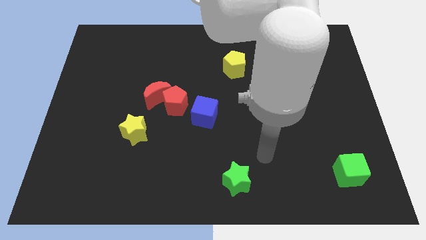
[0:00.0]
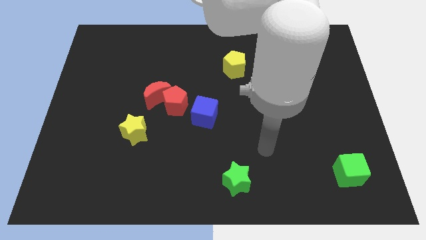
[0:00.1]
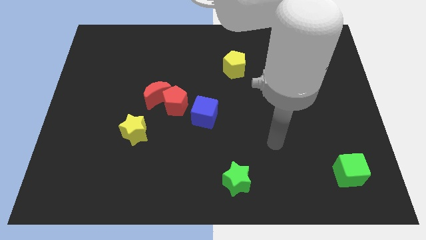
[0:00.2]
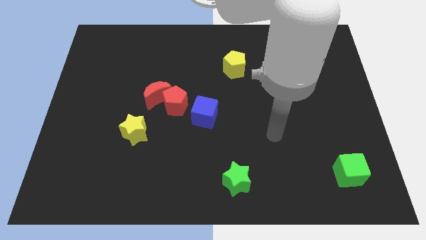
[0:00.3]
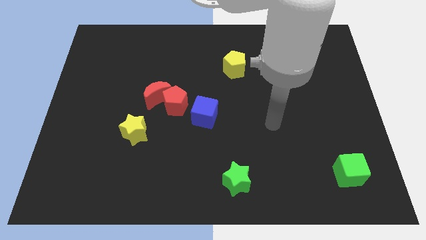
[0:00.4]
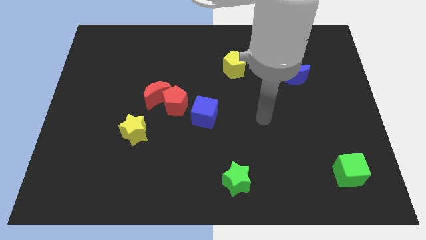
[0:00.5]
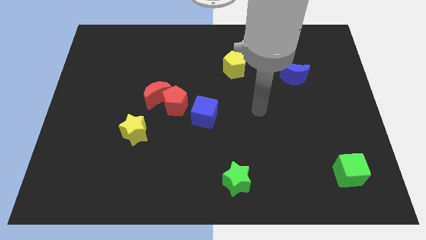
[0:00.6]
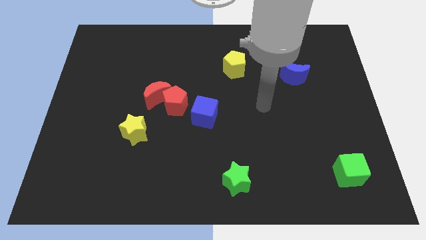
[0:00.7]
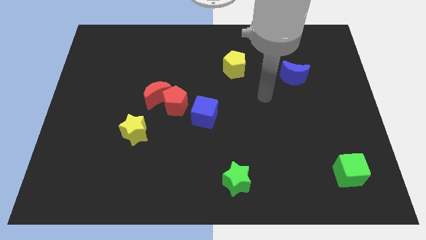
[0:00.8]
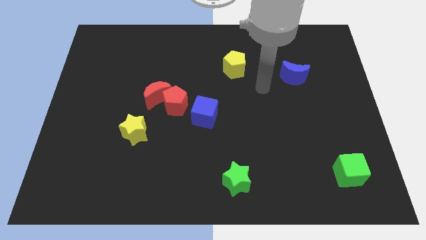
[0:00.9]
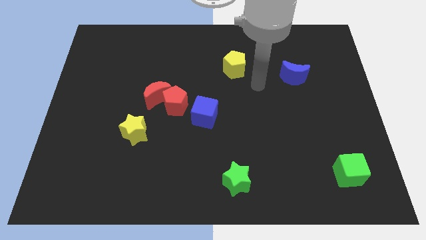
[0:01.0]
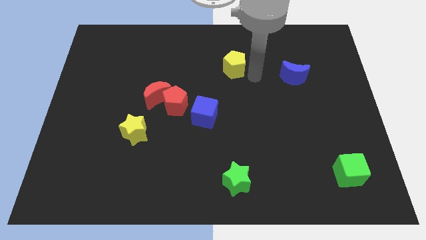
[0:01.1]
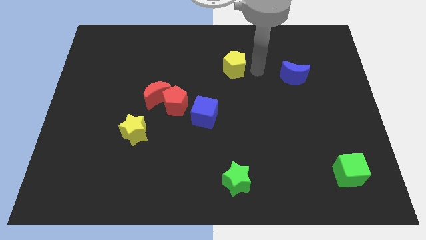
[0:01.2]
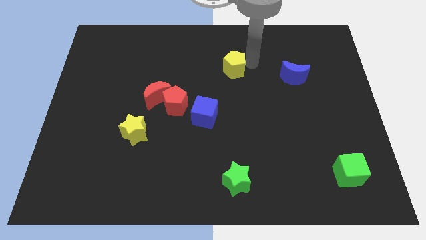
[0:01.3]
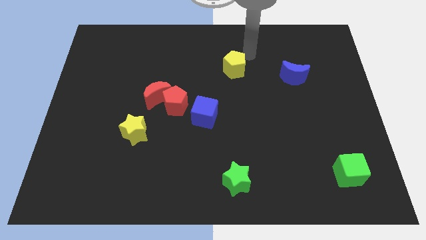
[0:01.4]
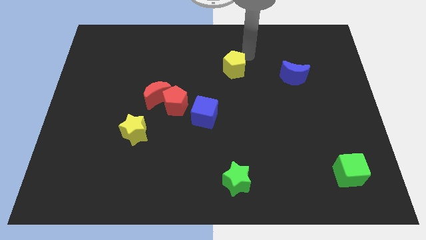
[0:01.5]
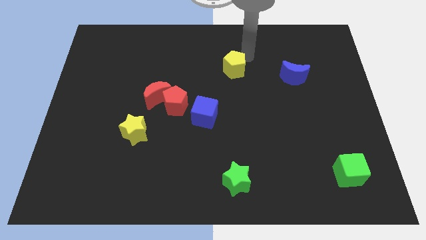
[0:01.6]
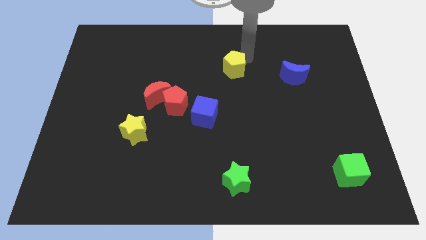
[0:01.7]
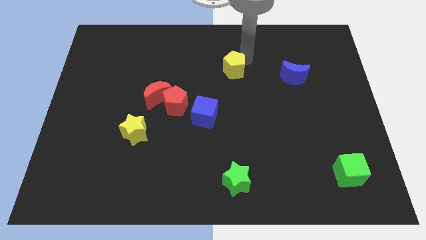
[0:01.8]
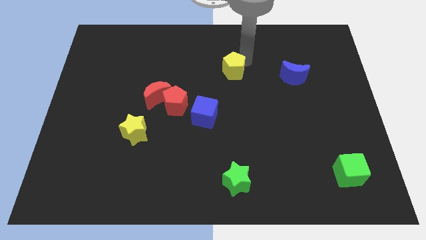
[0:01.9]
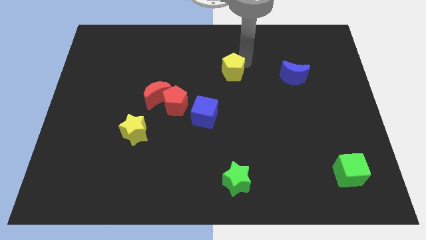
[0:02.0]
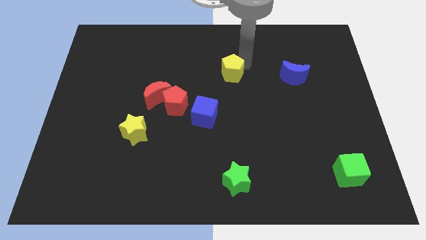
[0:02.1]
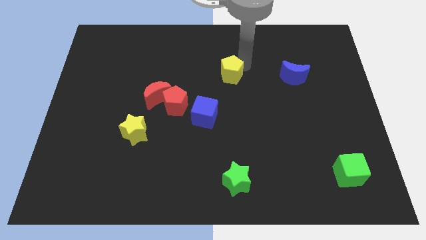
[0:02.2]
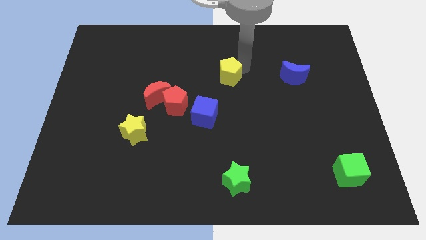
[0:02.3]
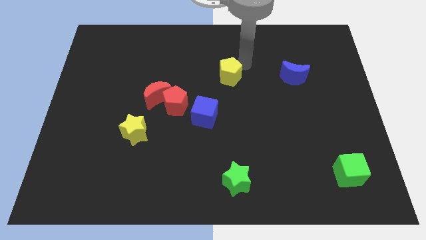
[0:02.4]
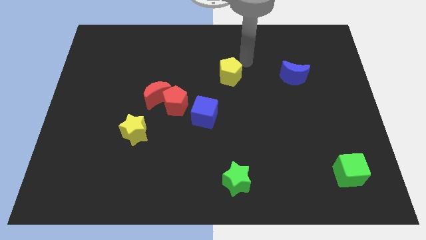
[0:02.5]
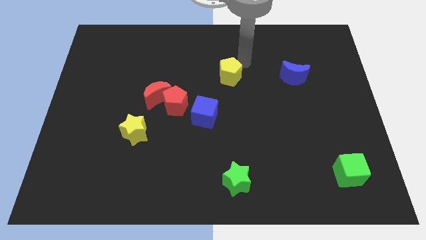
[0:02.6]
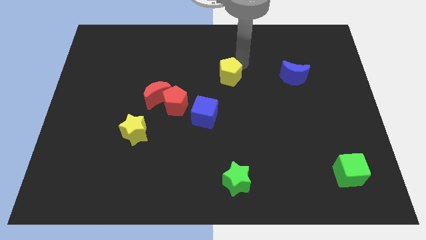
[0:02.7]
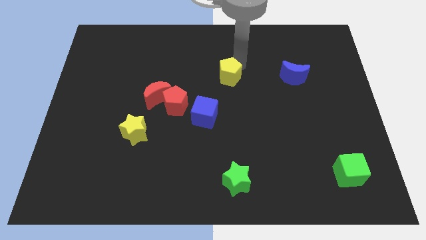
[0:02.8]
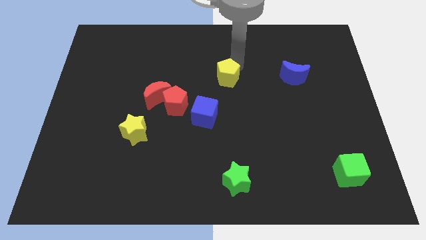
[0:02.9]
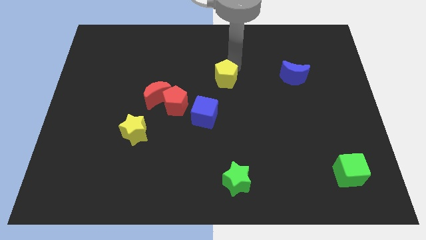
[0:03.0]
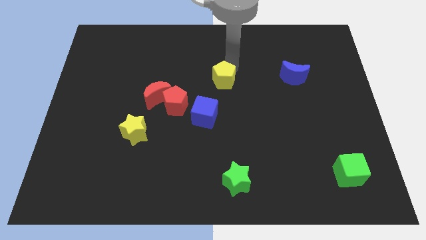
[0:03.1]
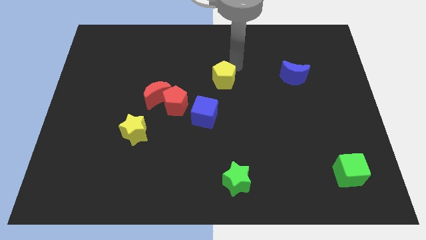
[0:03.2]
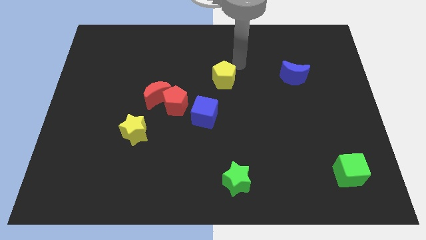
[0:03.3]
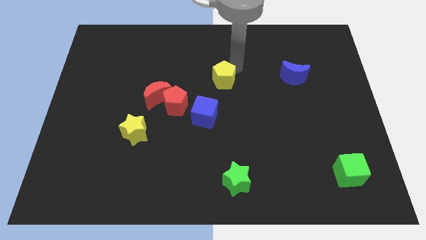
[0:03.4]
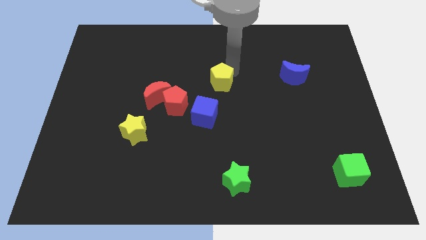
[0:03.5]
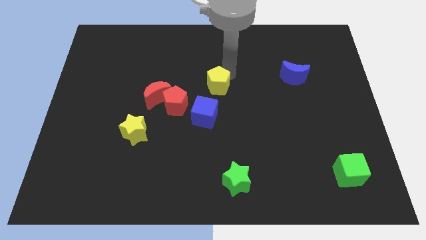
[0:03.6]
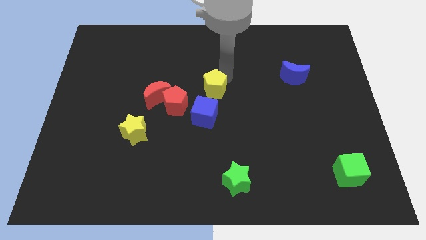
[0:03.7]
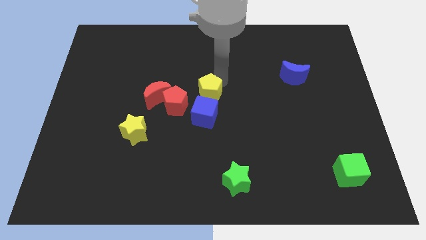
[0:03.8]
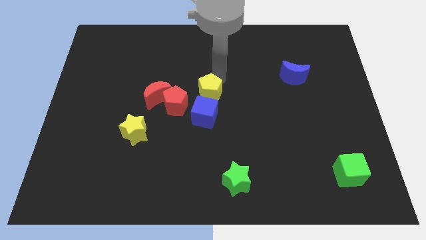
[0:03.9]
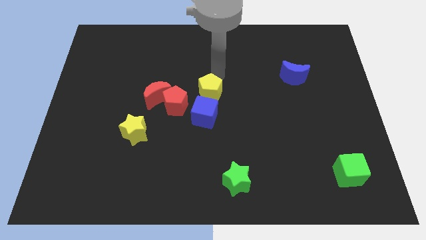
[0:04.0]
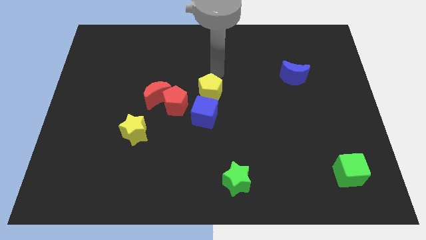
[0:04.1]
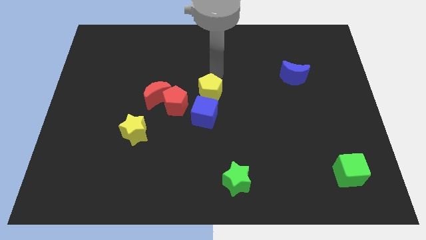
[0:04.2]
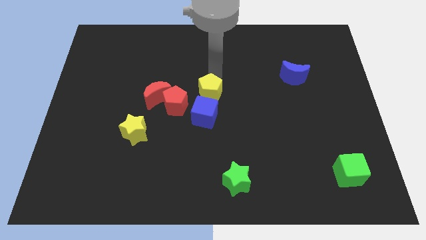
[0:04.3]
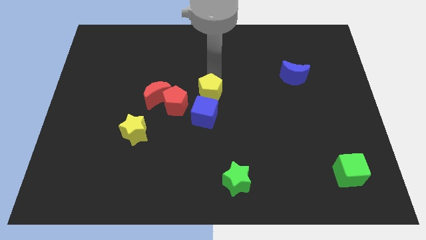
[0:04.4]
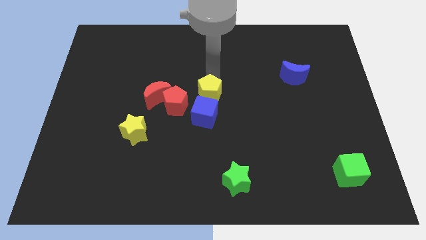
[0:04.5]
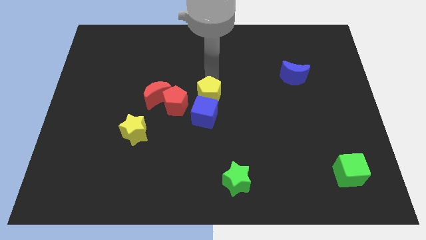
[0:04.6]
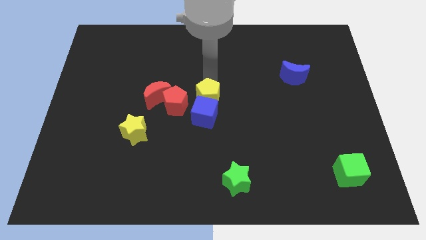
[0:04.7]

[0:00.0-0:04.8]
push the yellow pentagon next to the blue cube

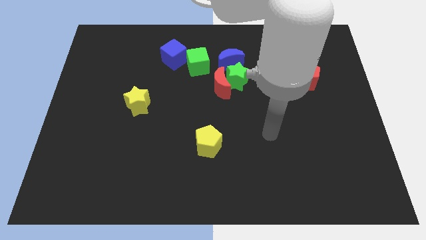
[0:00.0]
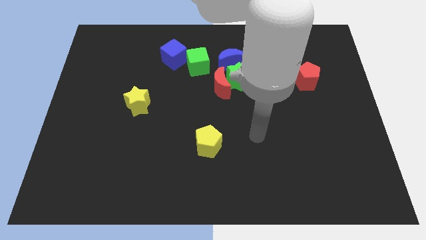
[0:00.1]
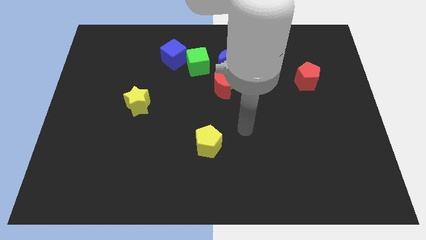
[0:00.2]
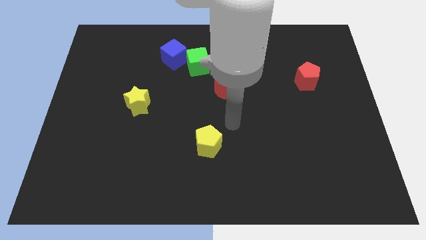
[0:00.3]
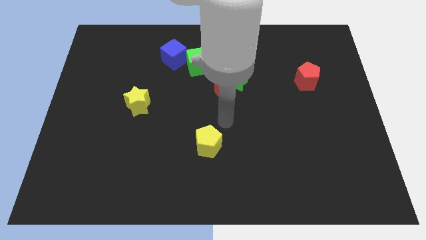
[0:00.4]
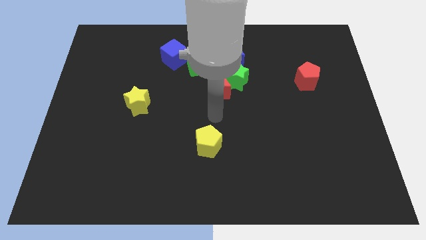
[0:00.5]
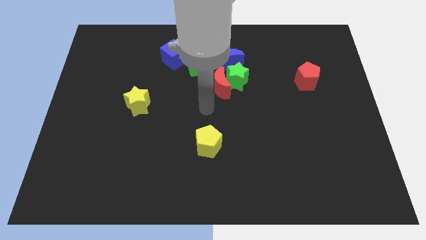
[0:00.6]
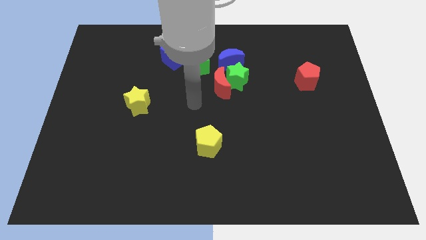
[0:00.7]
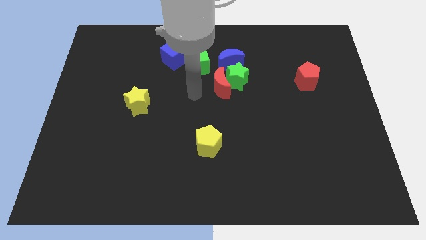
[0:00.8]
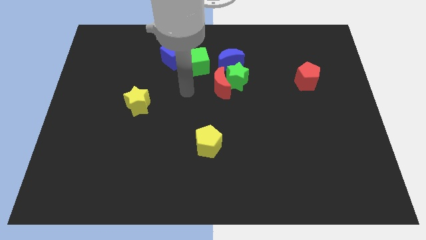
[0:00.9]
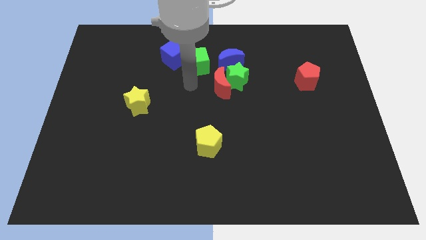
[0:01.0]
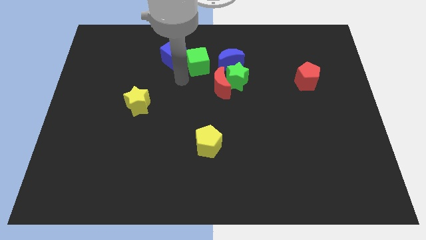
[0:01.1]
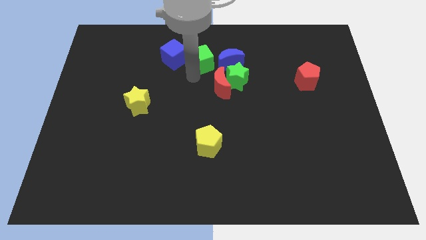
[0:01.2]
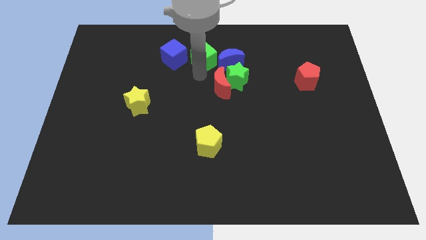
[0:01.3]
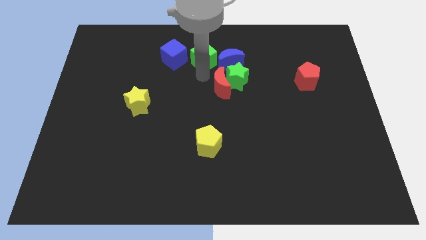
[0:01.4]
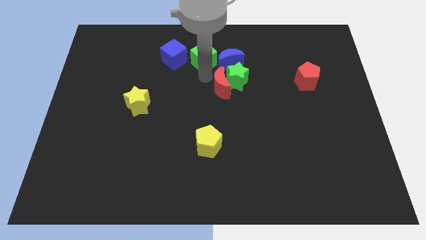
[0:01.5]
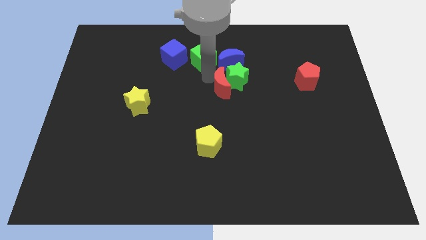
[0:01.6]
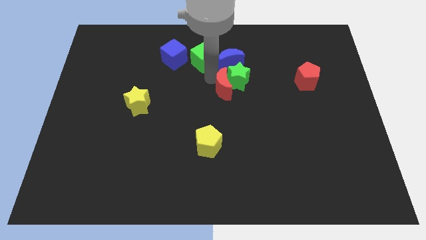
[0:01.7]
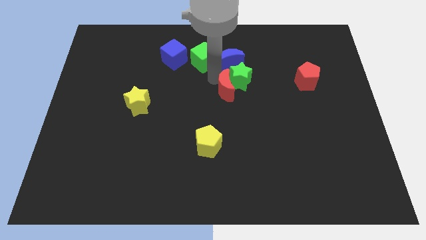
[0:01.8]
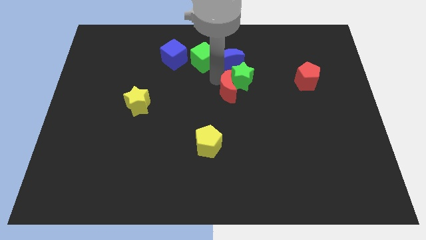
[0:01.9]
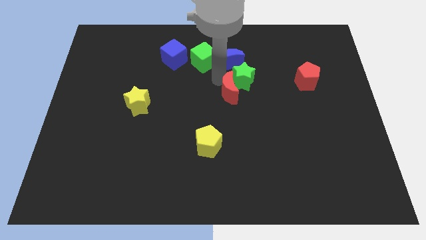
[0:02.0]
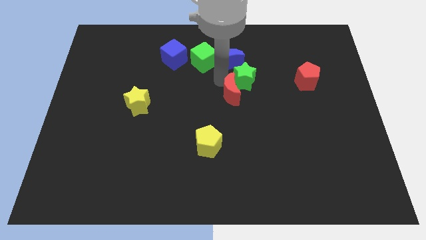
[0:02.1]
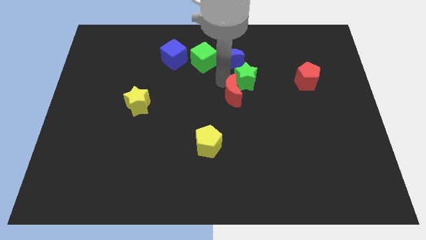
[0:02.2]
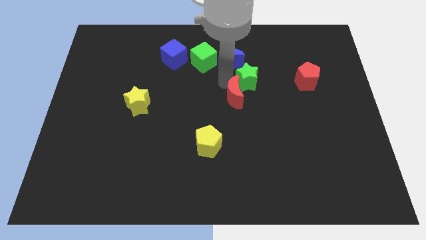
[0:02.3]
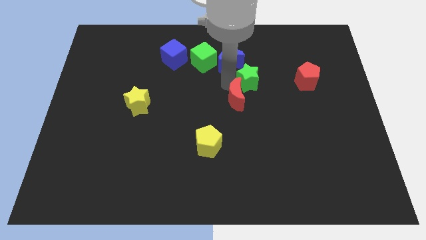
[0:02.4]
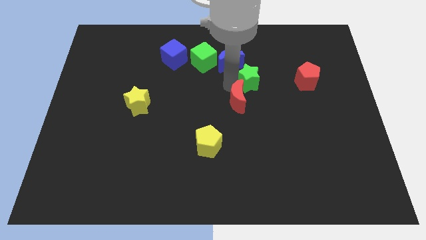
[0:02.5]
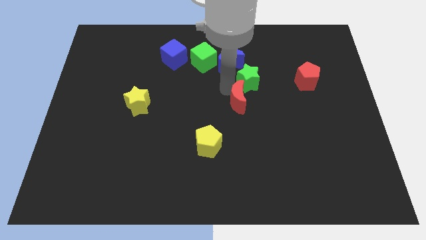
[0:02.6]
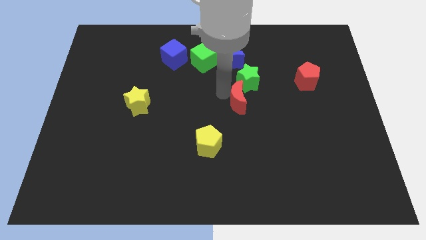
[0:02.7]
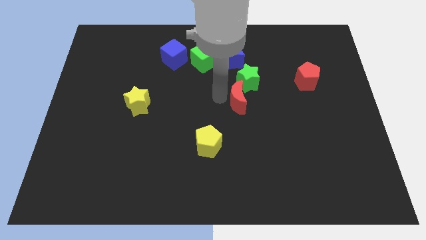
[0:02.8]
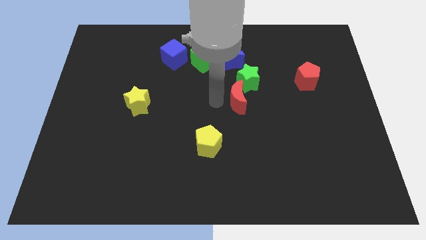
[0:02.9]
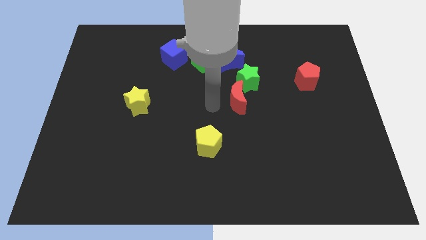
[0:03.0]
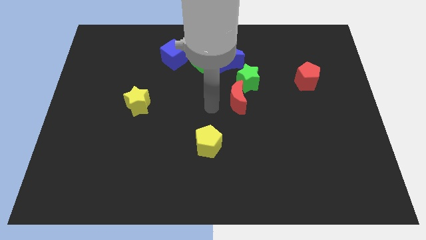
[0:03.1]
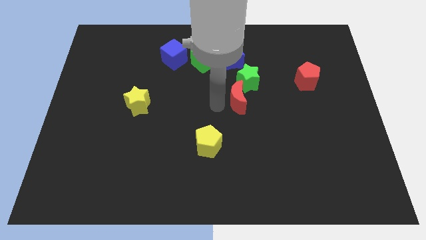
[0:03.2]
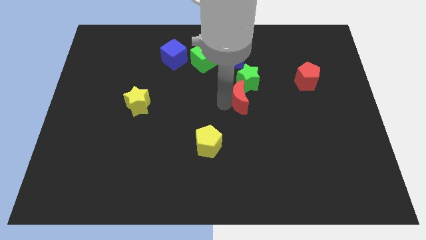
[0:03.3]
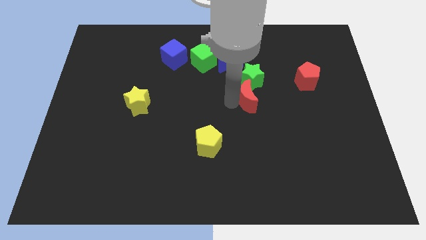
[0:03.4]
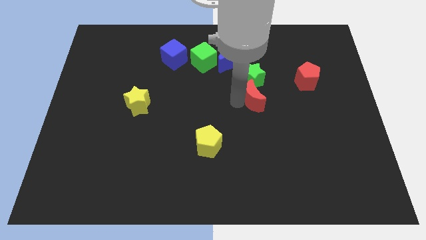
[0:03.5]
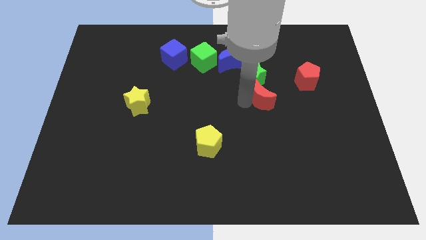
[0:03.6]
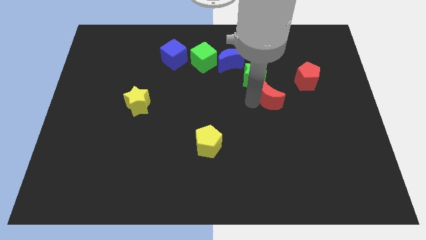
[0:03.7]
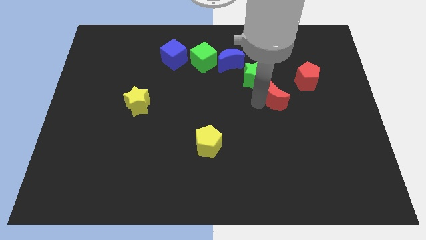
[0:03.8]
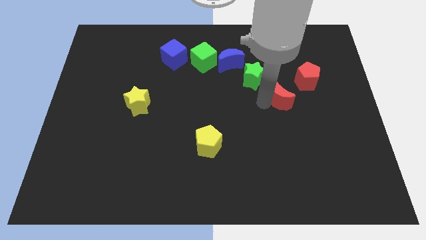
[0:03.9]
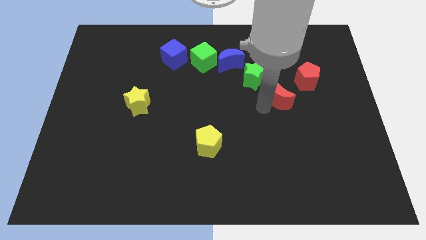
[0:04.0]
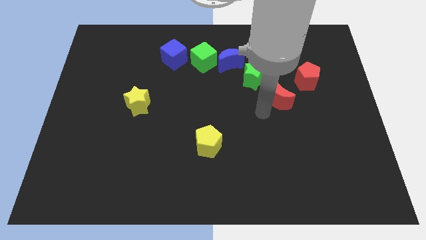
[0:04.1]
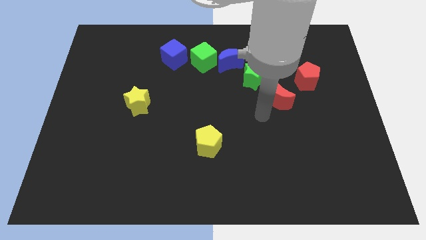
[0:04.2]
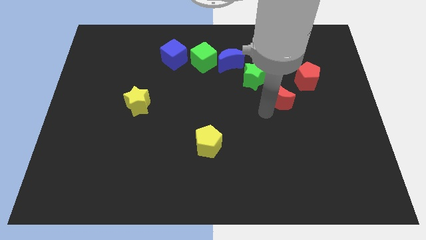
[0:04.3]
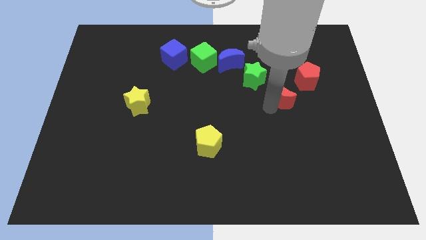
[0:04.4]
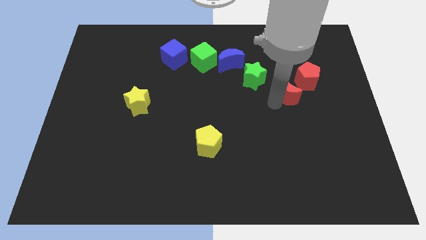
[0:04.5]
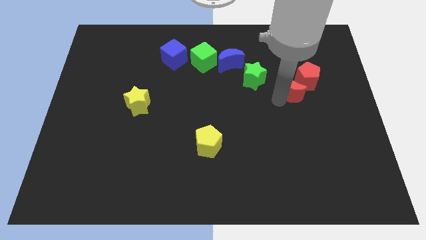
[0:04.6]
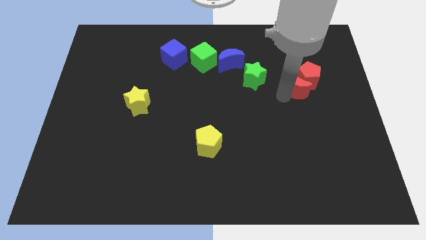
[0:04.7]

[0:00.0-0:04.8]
slide the red moon close to the red pentagon
